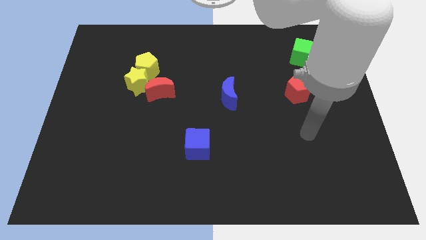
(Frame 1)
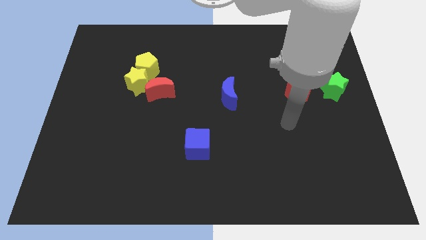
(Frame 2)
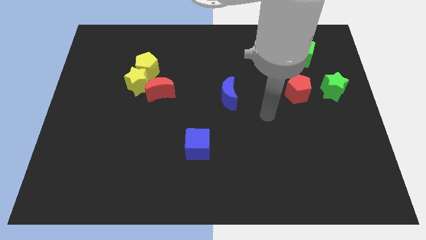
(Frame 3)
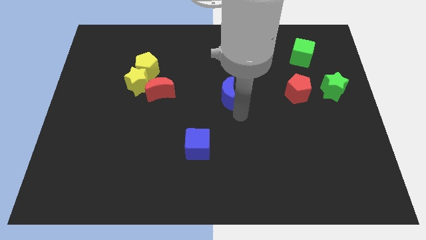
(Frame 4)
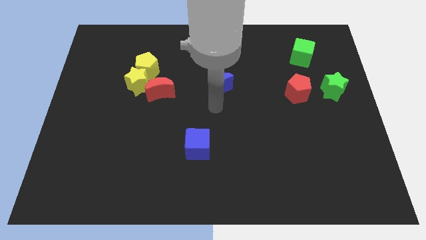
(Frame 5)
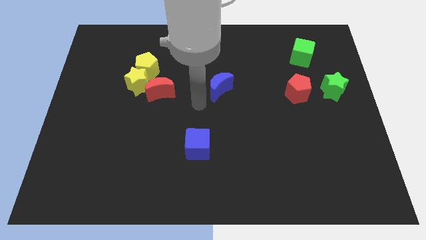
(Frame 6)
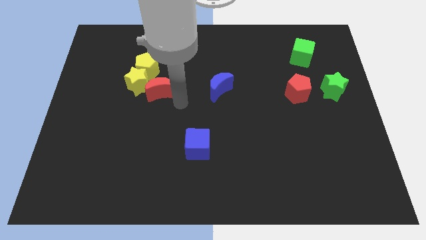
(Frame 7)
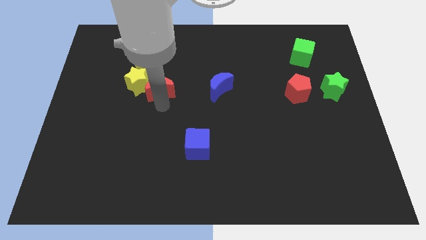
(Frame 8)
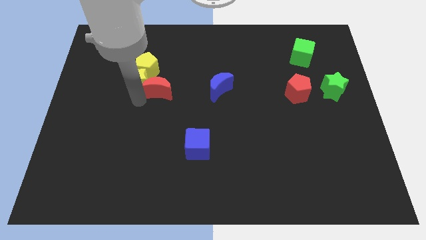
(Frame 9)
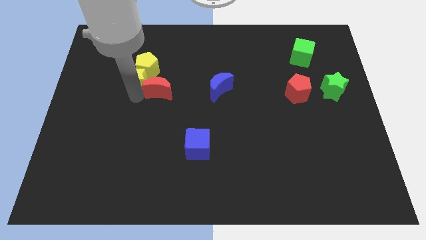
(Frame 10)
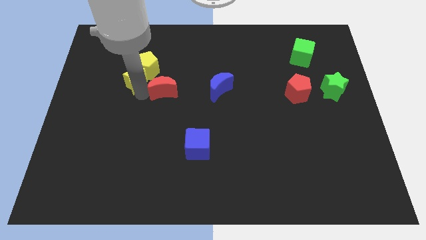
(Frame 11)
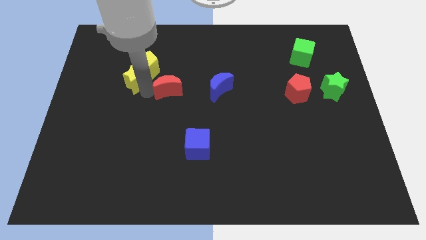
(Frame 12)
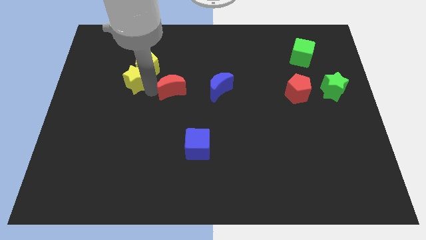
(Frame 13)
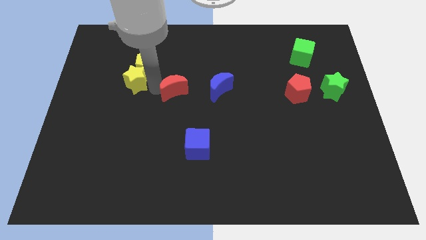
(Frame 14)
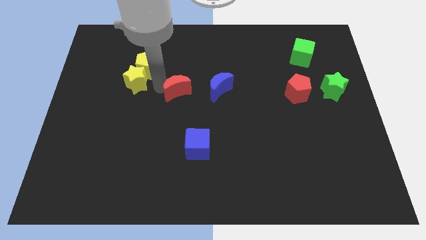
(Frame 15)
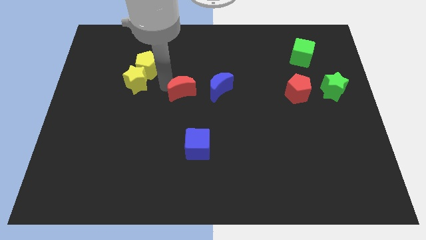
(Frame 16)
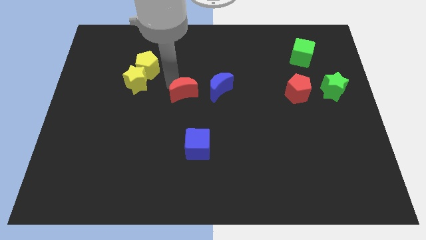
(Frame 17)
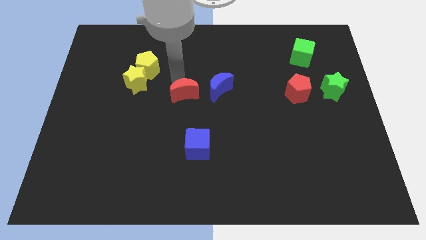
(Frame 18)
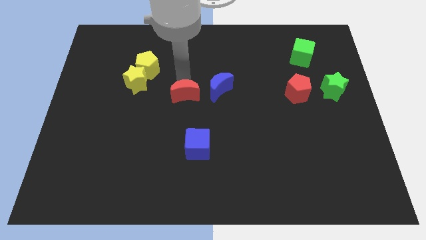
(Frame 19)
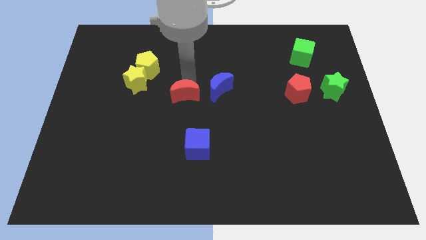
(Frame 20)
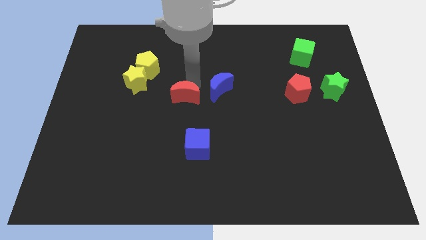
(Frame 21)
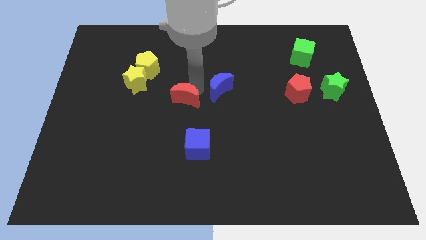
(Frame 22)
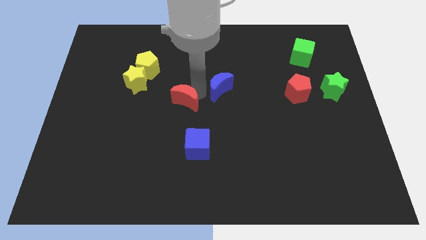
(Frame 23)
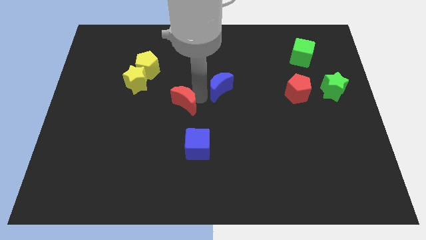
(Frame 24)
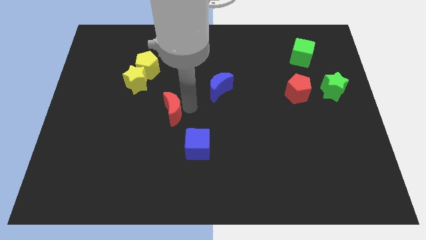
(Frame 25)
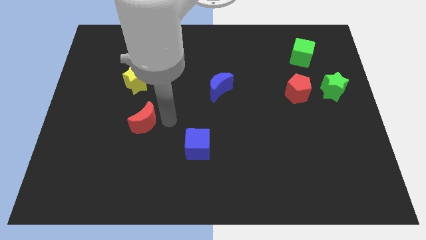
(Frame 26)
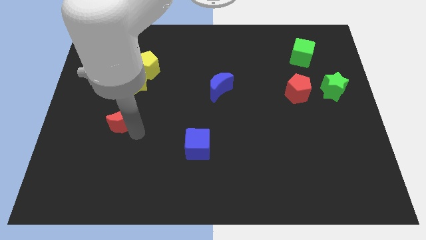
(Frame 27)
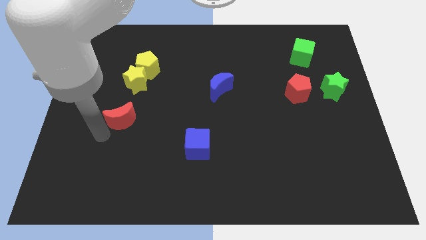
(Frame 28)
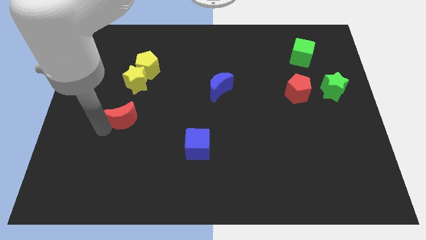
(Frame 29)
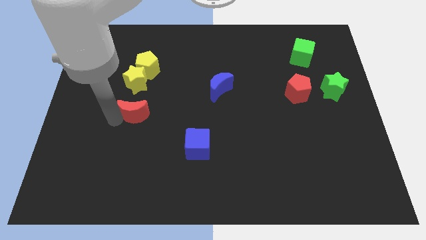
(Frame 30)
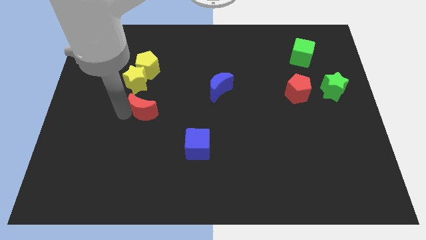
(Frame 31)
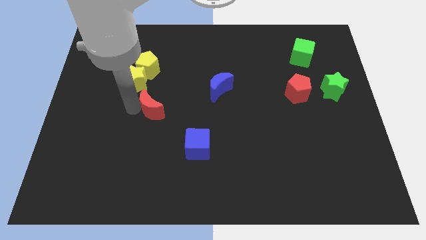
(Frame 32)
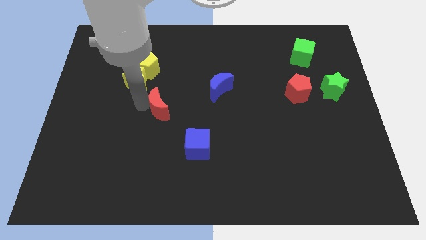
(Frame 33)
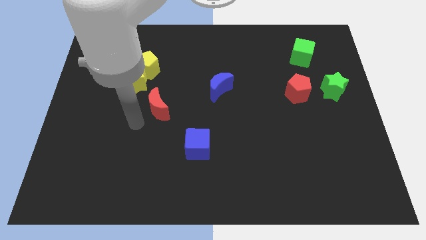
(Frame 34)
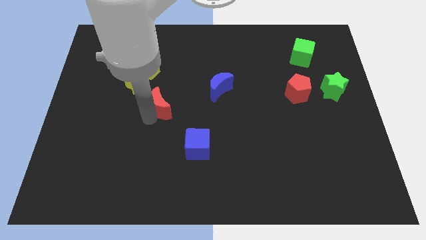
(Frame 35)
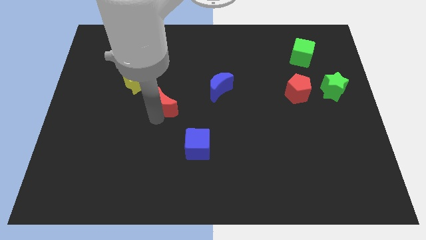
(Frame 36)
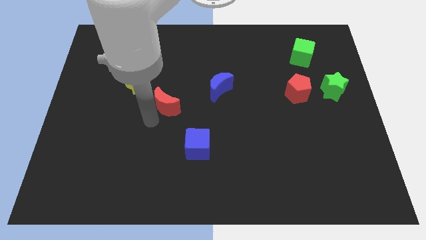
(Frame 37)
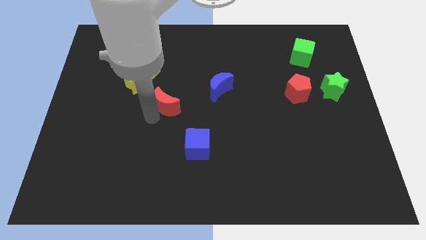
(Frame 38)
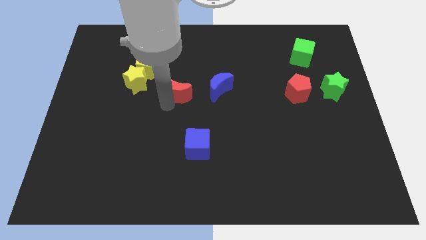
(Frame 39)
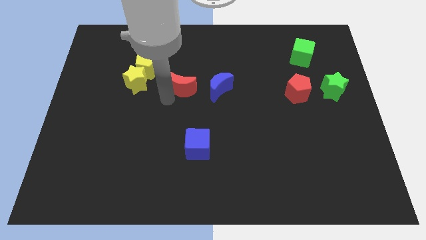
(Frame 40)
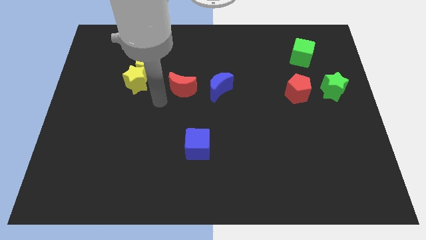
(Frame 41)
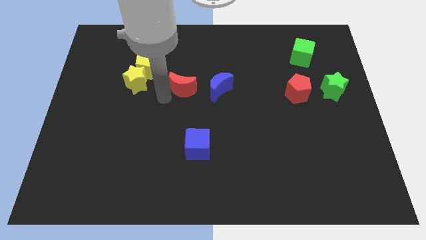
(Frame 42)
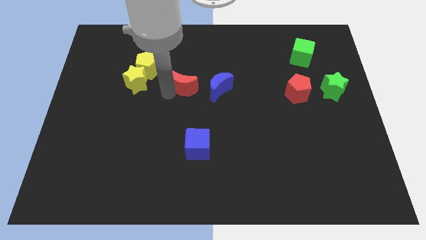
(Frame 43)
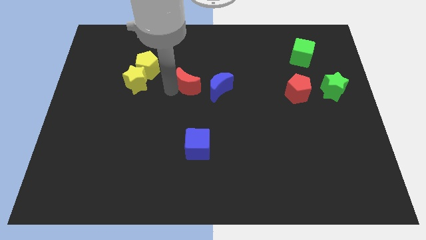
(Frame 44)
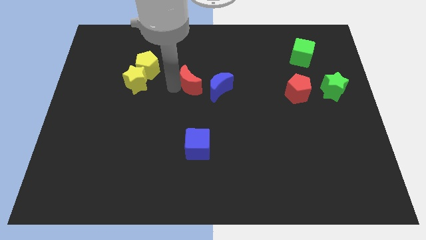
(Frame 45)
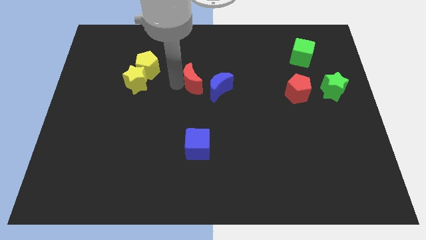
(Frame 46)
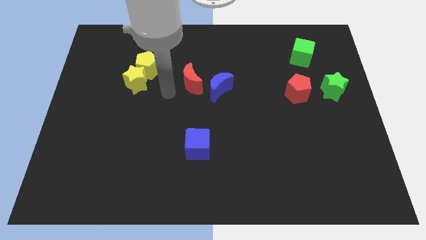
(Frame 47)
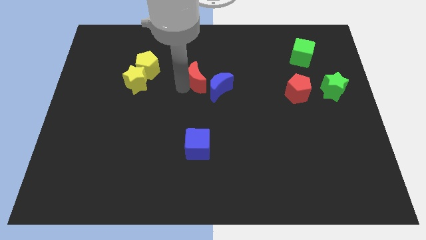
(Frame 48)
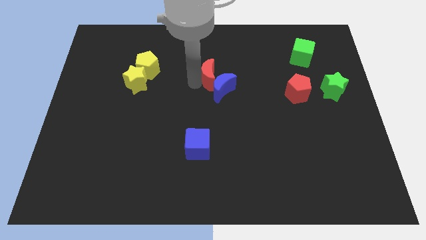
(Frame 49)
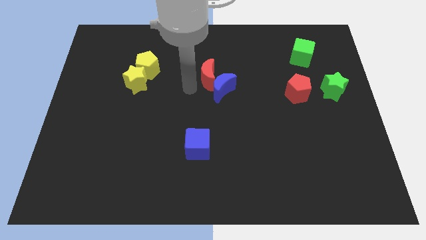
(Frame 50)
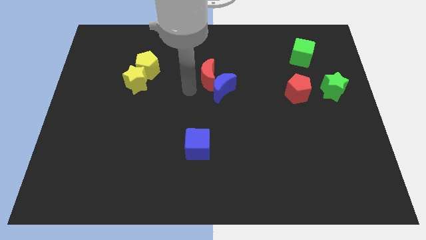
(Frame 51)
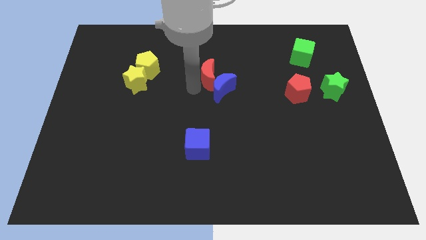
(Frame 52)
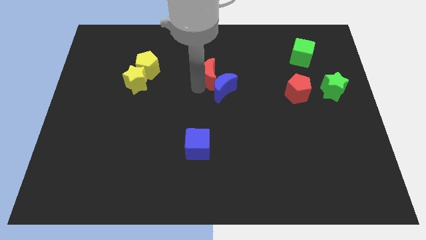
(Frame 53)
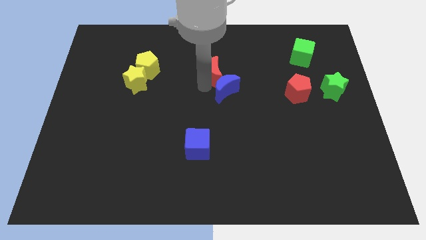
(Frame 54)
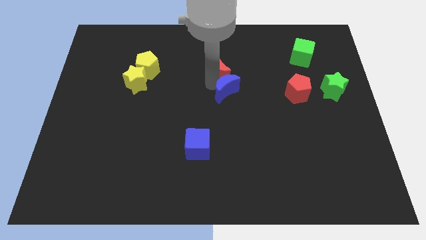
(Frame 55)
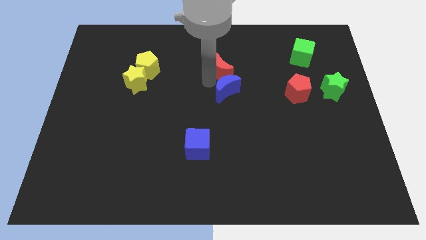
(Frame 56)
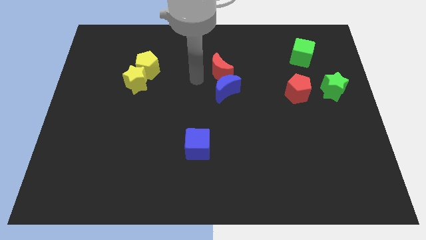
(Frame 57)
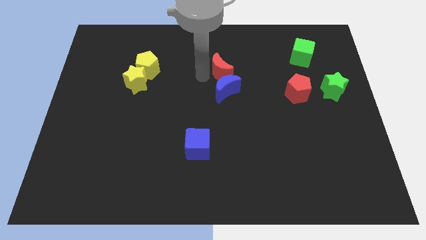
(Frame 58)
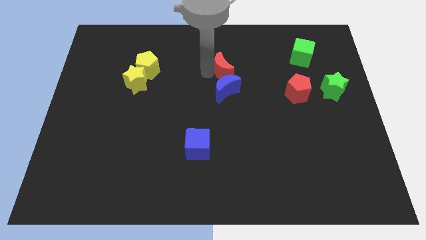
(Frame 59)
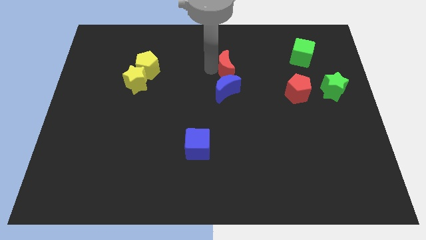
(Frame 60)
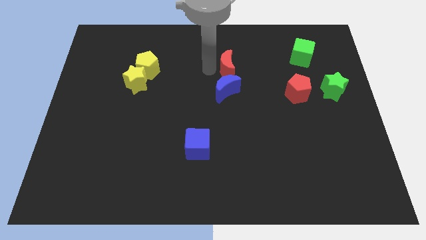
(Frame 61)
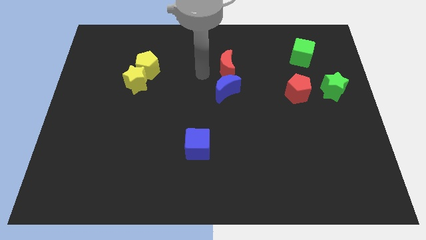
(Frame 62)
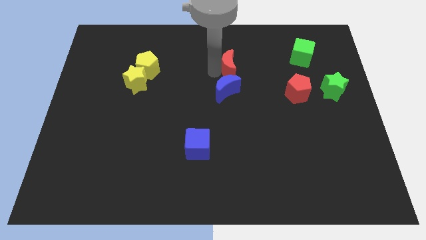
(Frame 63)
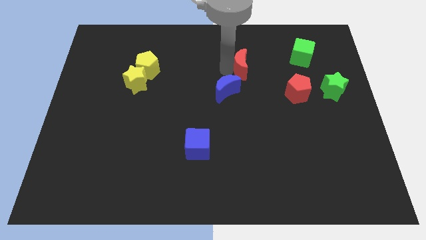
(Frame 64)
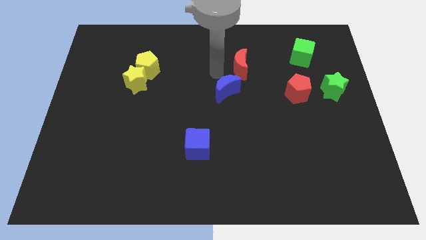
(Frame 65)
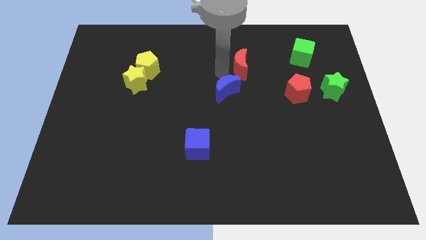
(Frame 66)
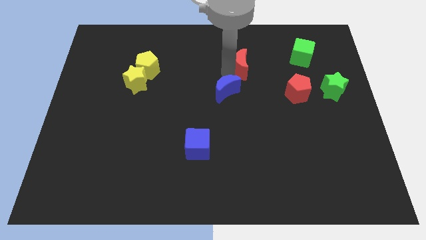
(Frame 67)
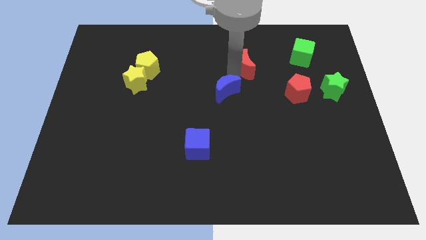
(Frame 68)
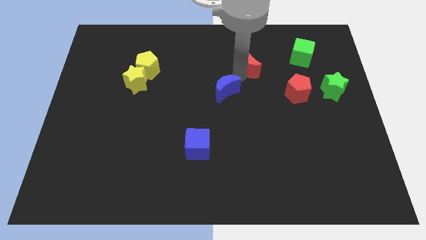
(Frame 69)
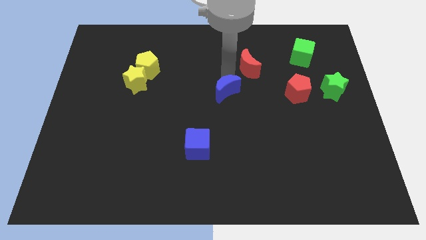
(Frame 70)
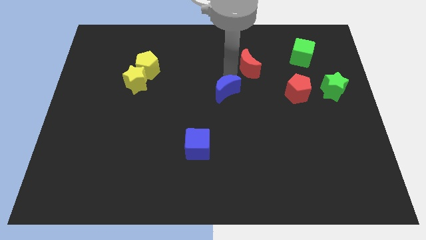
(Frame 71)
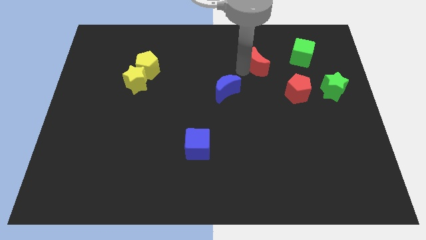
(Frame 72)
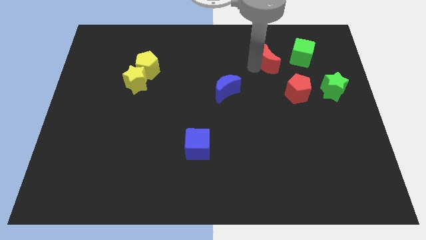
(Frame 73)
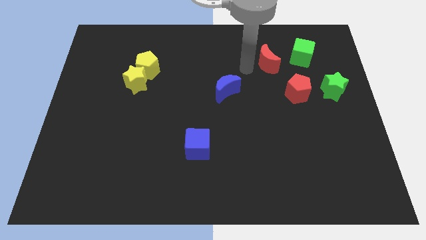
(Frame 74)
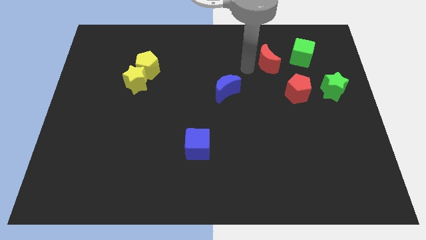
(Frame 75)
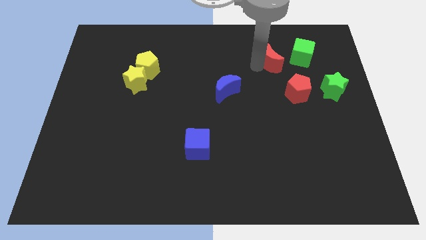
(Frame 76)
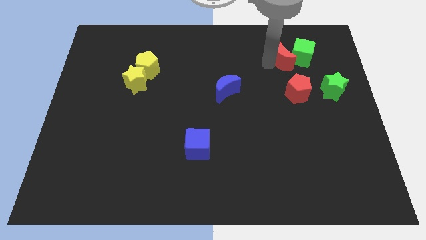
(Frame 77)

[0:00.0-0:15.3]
put the red moon to the green cube
